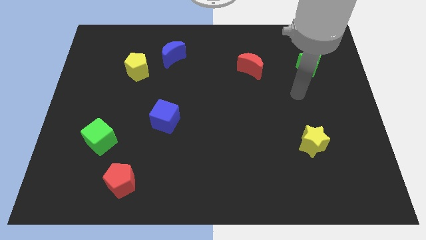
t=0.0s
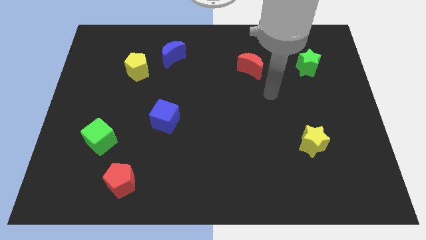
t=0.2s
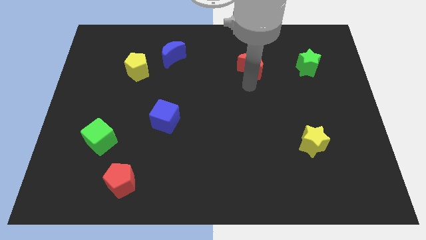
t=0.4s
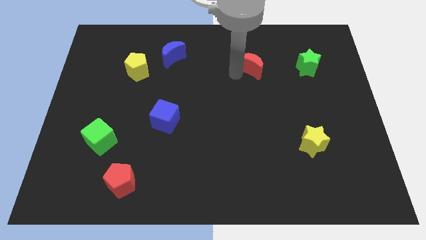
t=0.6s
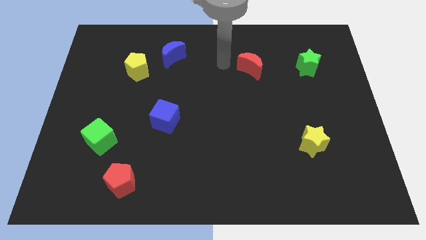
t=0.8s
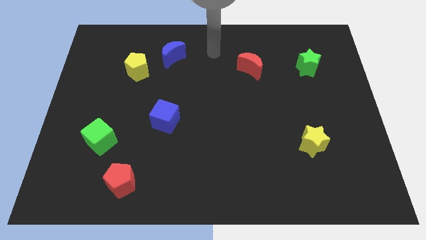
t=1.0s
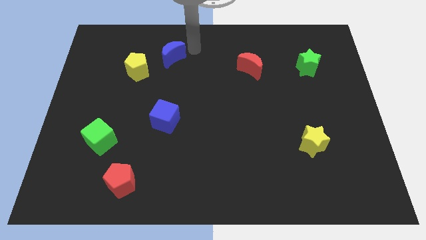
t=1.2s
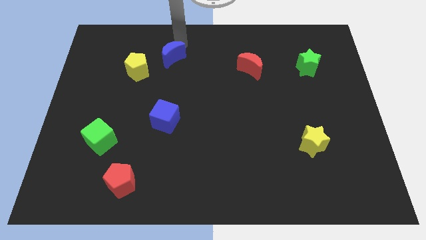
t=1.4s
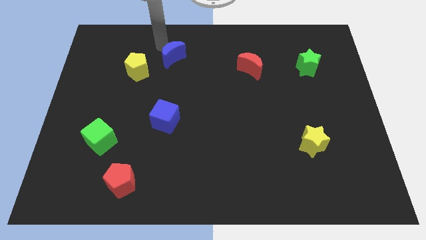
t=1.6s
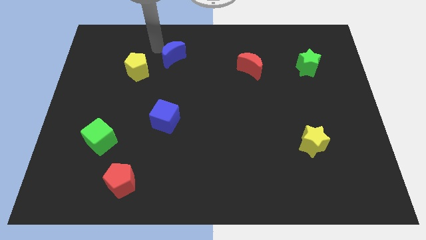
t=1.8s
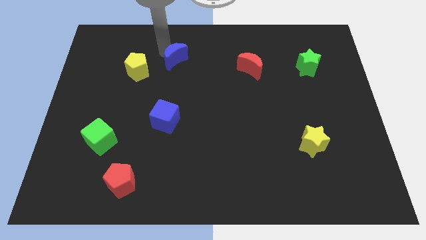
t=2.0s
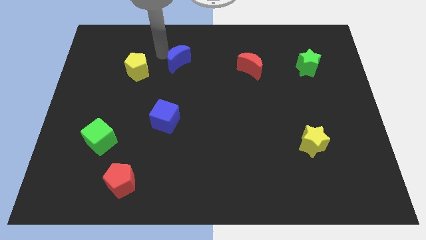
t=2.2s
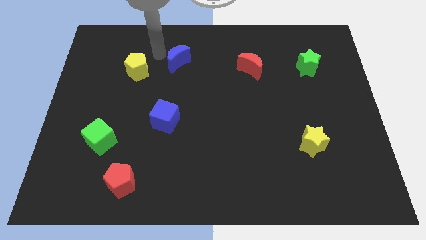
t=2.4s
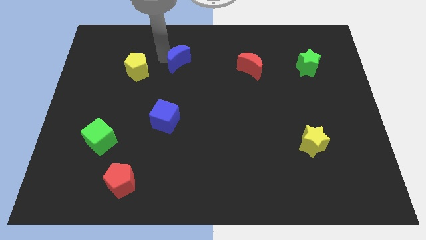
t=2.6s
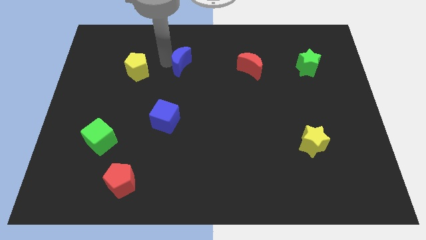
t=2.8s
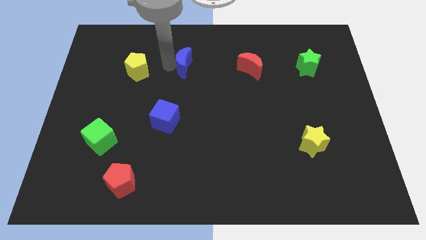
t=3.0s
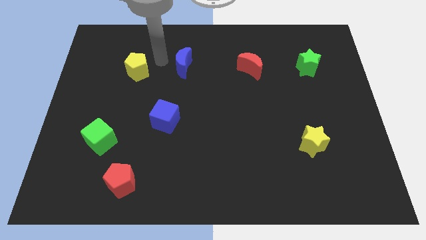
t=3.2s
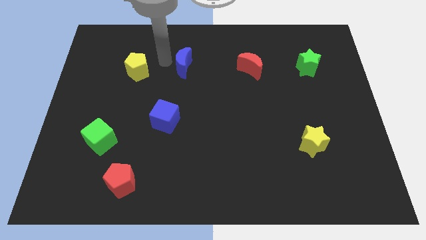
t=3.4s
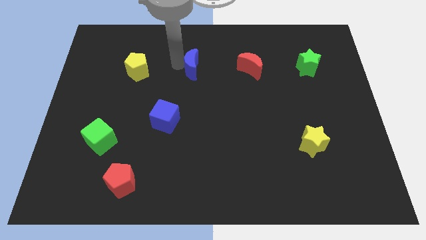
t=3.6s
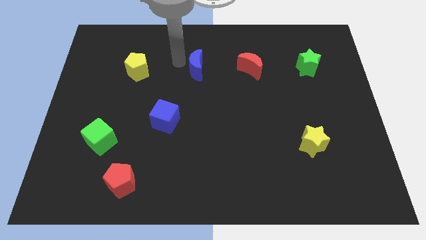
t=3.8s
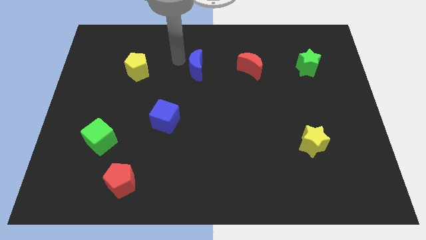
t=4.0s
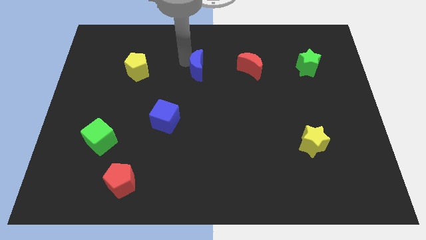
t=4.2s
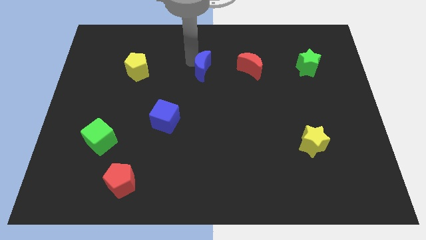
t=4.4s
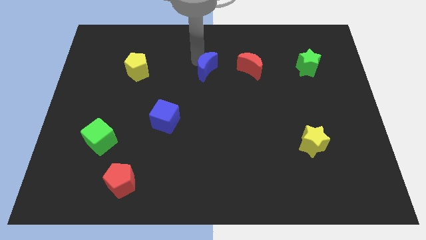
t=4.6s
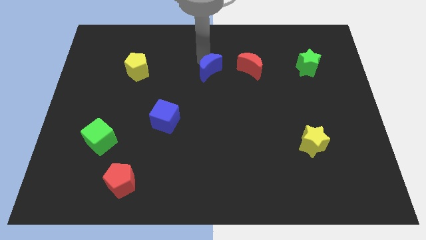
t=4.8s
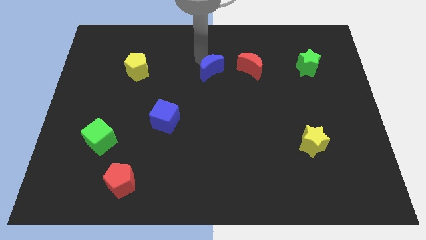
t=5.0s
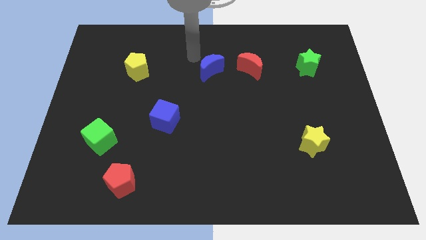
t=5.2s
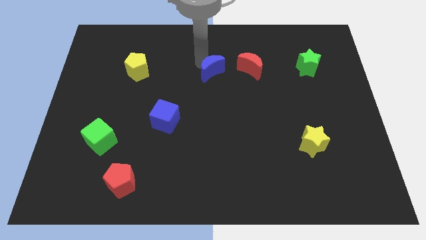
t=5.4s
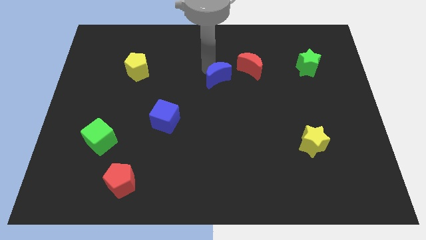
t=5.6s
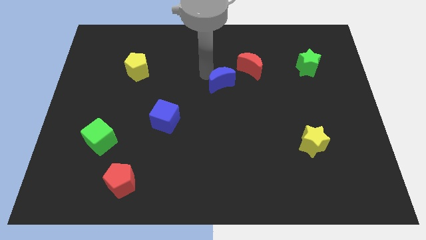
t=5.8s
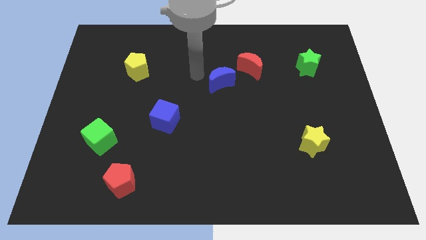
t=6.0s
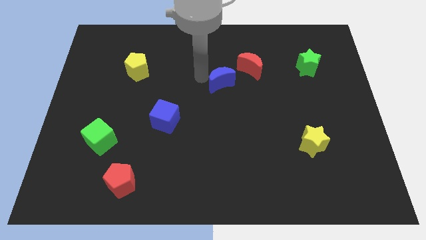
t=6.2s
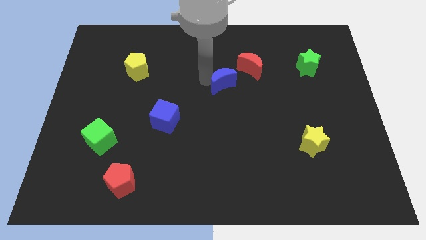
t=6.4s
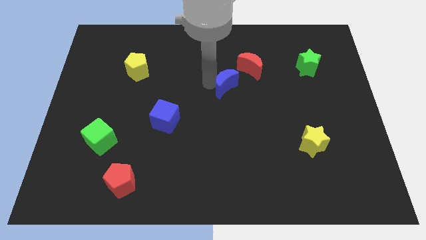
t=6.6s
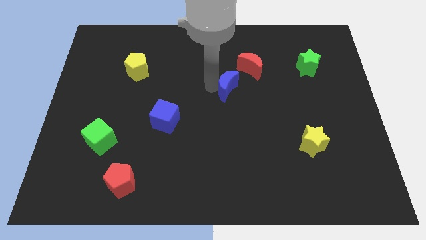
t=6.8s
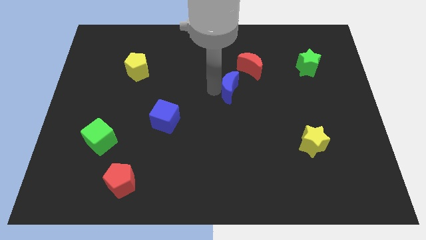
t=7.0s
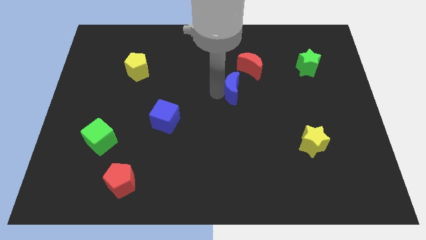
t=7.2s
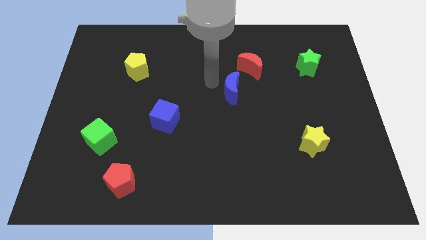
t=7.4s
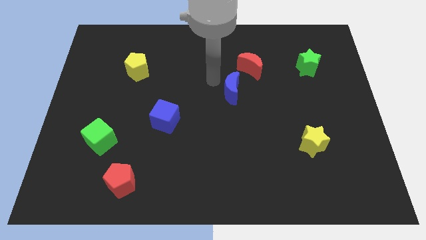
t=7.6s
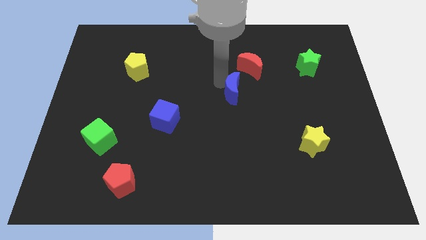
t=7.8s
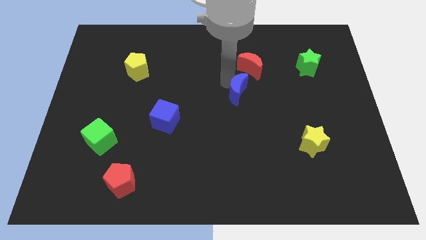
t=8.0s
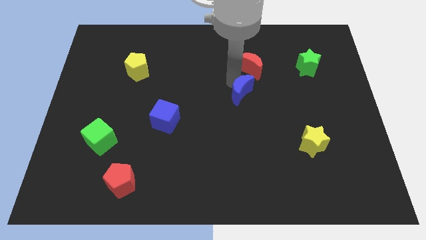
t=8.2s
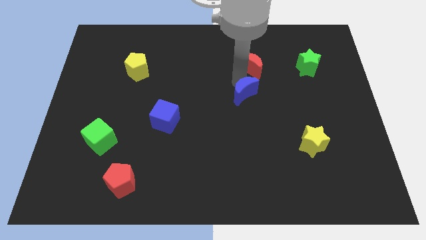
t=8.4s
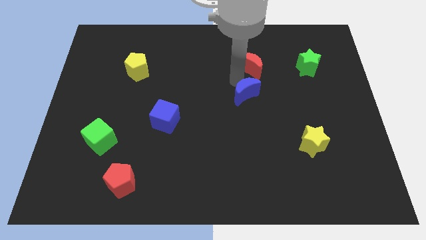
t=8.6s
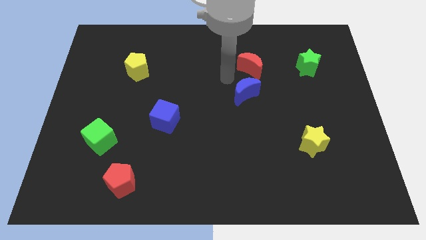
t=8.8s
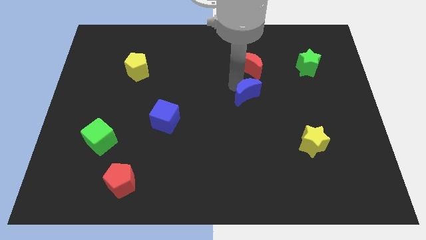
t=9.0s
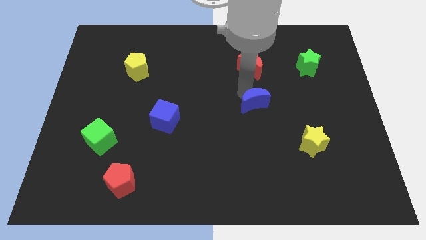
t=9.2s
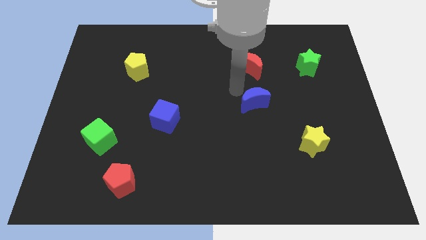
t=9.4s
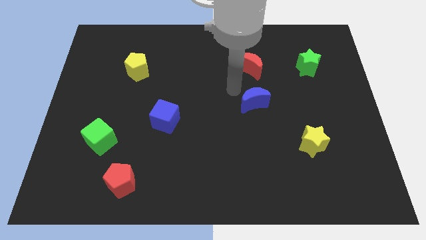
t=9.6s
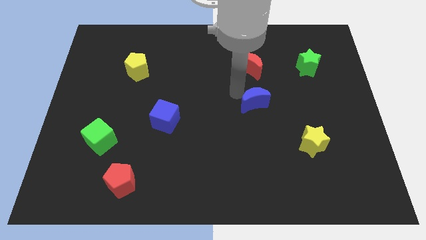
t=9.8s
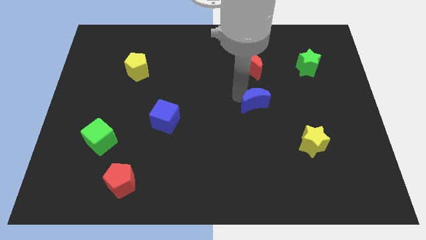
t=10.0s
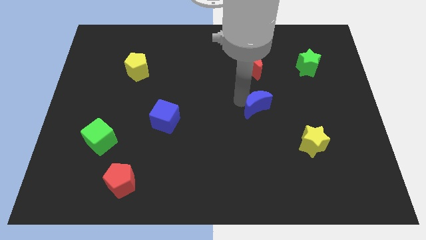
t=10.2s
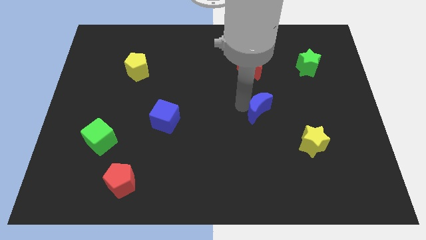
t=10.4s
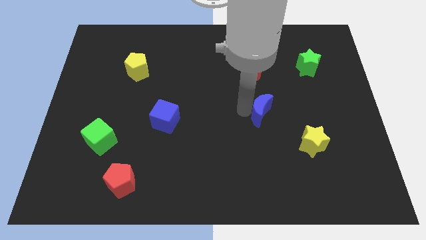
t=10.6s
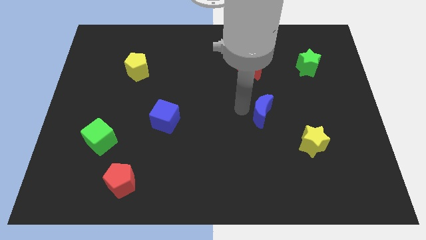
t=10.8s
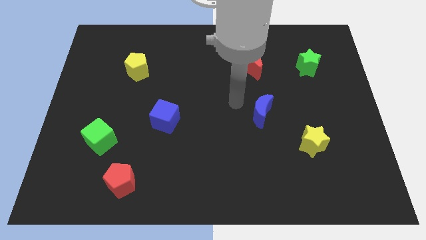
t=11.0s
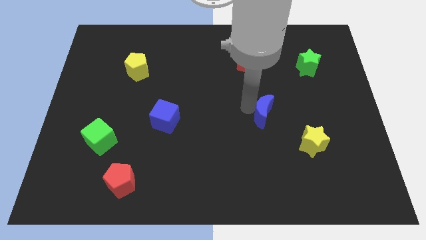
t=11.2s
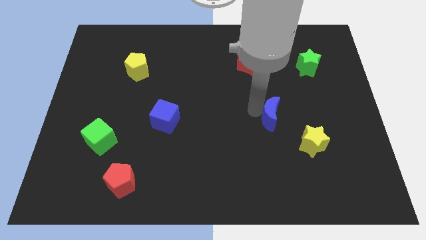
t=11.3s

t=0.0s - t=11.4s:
push the blue moon diagonally up and to the left of the yellow star

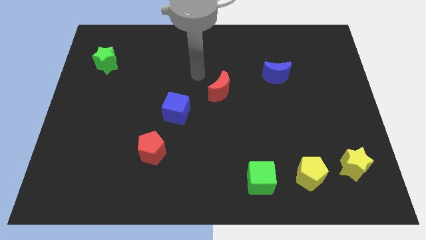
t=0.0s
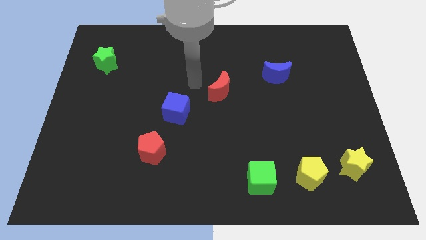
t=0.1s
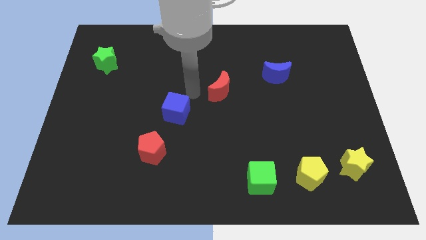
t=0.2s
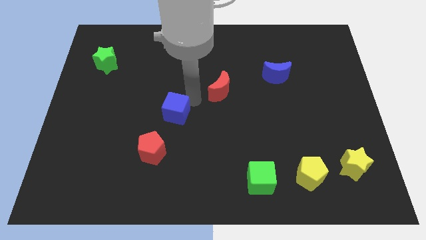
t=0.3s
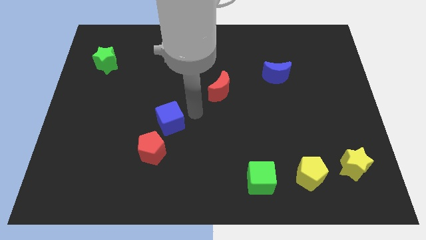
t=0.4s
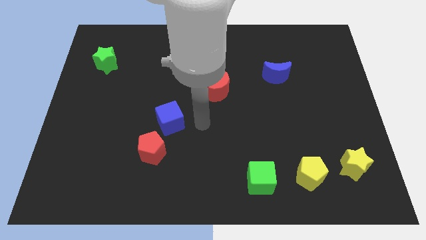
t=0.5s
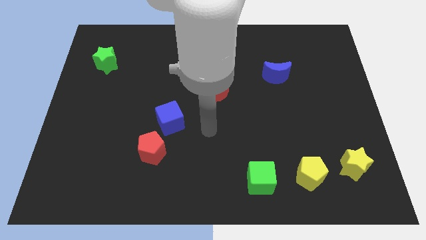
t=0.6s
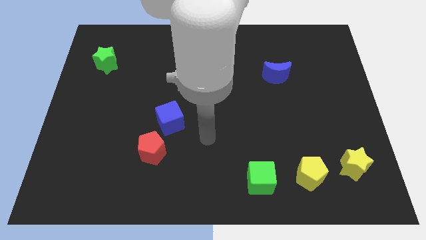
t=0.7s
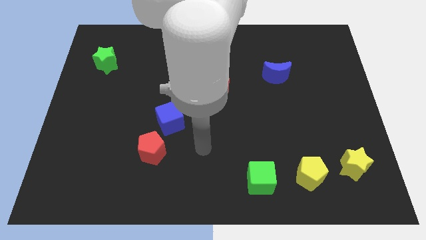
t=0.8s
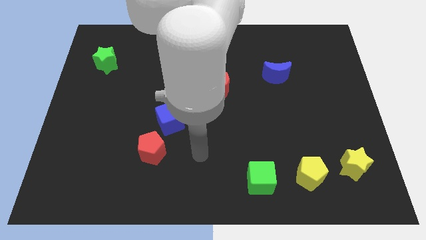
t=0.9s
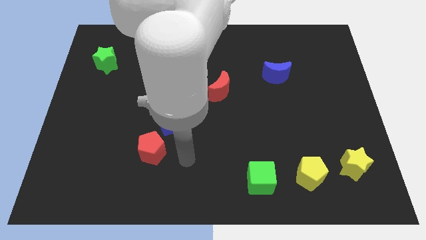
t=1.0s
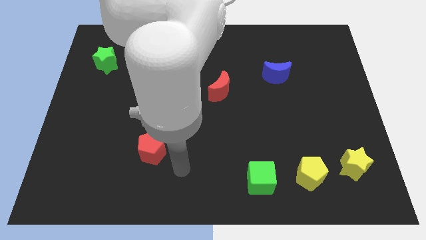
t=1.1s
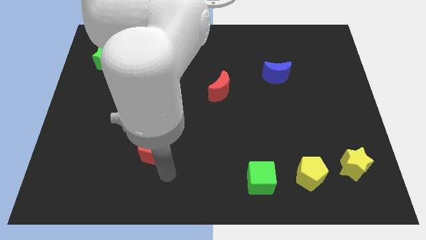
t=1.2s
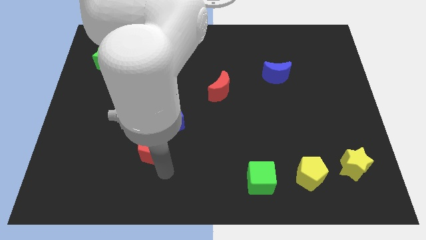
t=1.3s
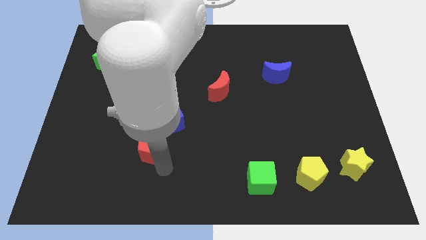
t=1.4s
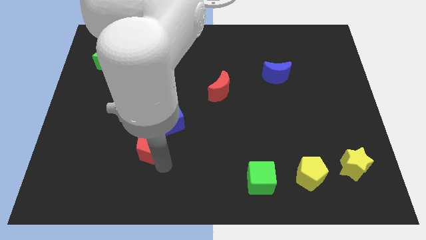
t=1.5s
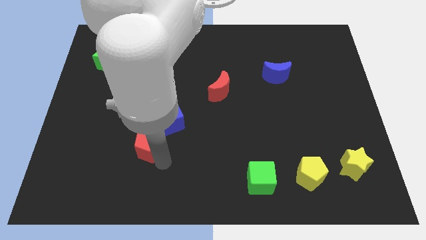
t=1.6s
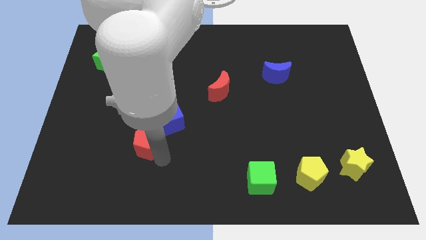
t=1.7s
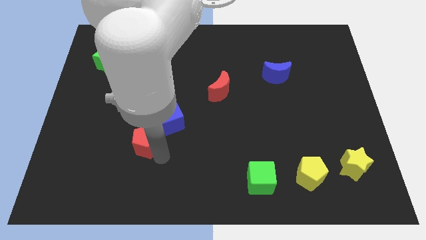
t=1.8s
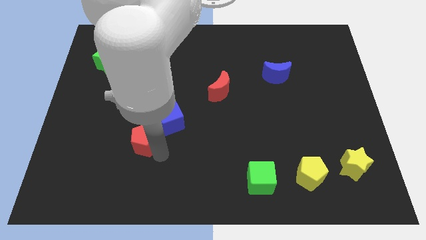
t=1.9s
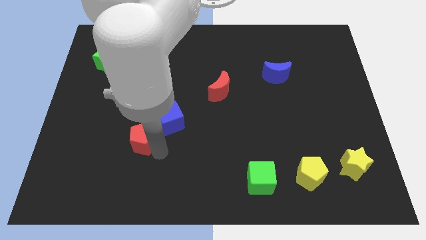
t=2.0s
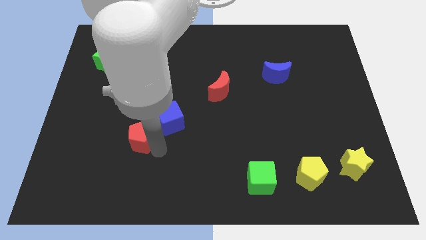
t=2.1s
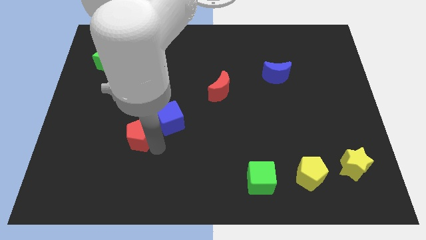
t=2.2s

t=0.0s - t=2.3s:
slide the red pentagon left of the blue cube
